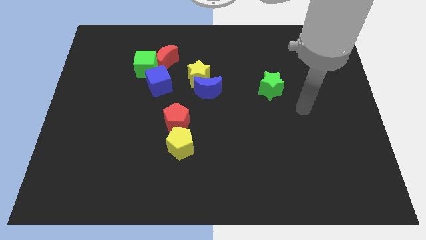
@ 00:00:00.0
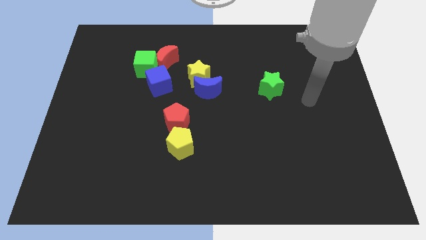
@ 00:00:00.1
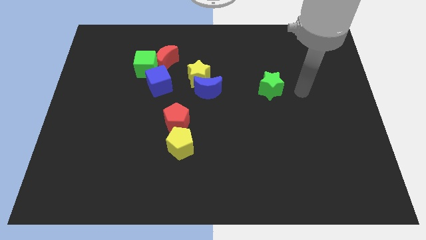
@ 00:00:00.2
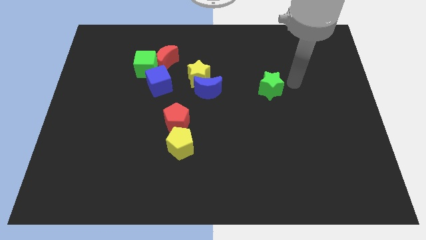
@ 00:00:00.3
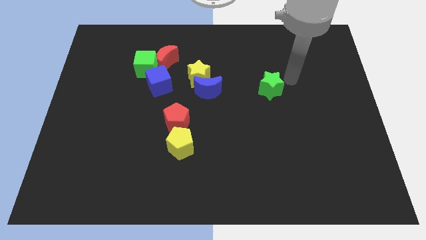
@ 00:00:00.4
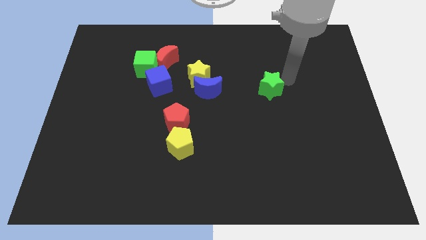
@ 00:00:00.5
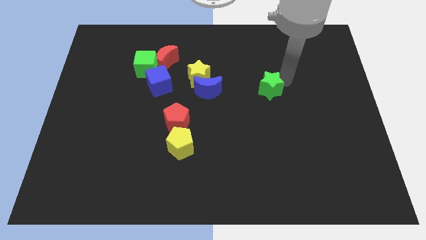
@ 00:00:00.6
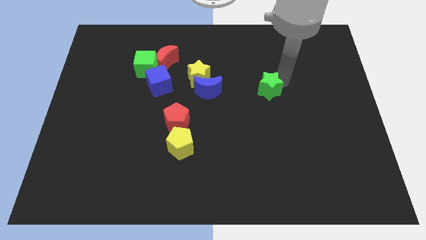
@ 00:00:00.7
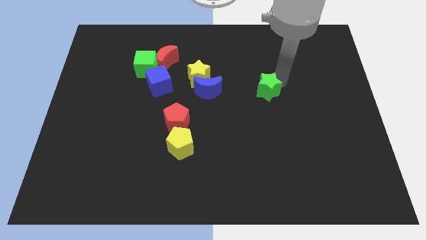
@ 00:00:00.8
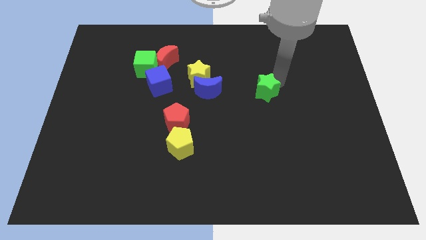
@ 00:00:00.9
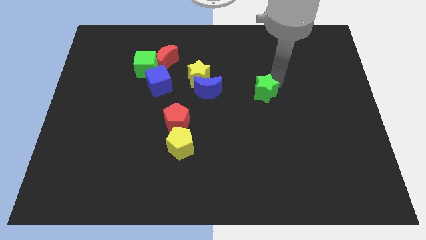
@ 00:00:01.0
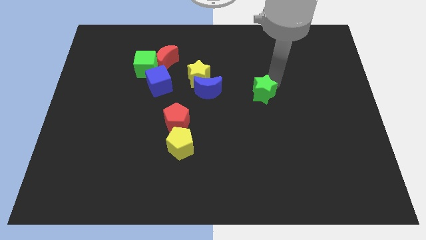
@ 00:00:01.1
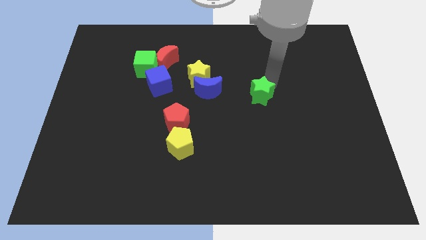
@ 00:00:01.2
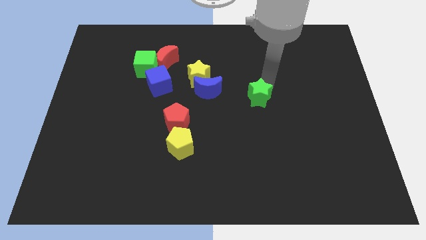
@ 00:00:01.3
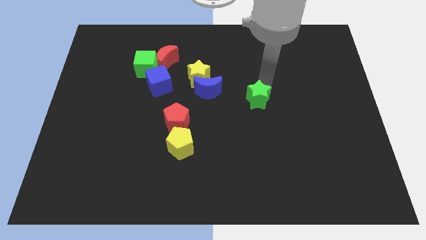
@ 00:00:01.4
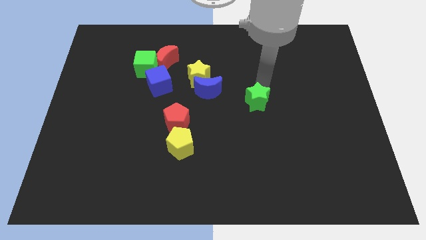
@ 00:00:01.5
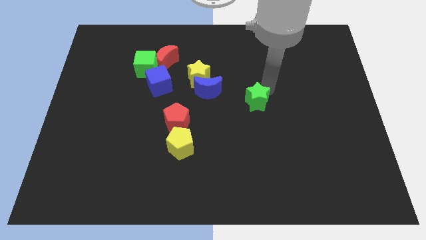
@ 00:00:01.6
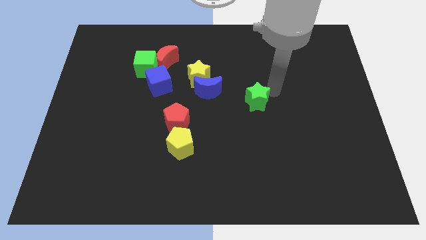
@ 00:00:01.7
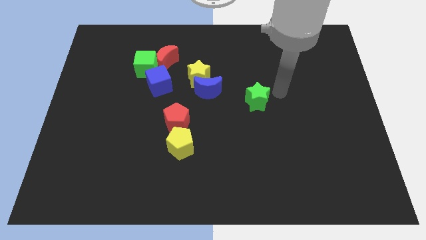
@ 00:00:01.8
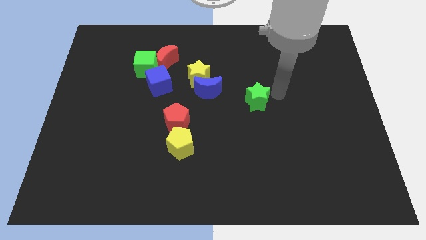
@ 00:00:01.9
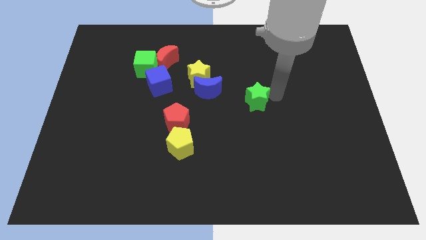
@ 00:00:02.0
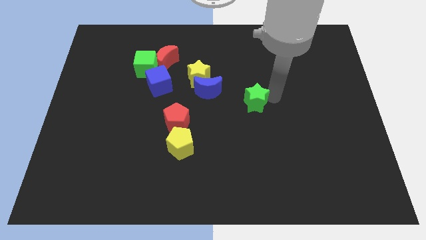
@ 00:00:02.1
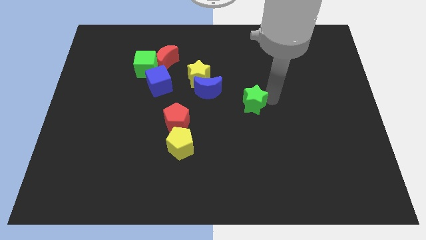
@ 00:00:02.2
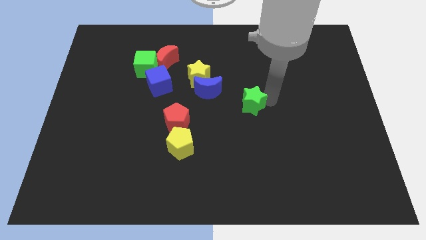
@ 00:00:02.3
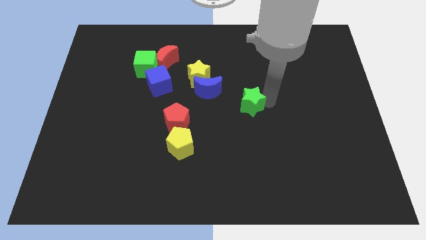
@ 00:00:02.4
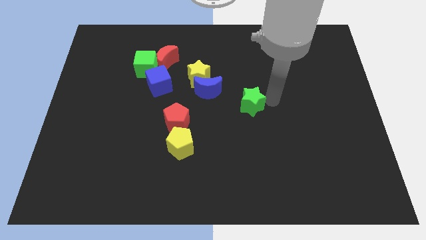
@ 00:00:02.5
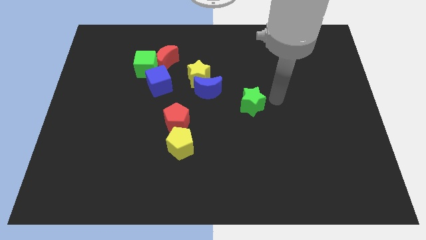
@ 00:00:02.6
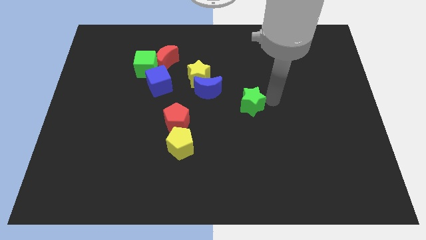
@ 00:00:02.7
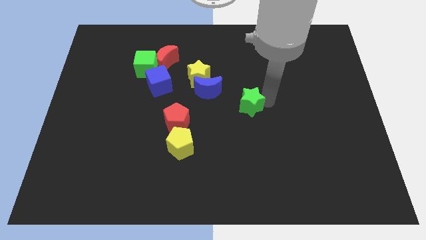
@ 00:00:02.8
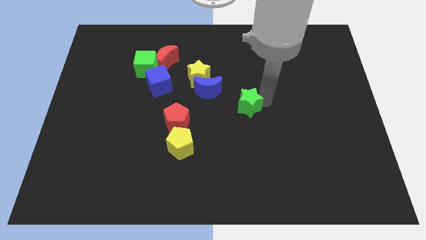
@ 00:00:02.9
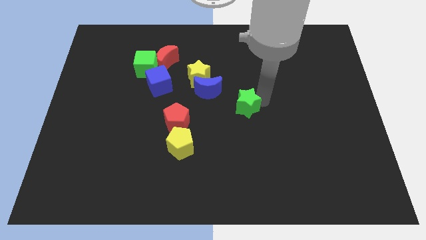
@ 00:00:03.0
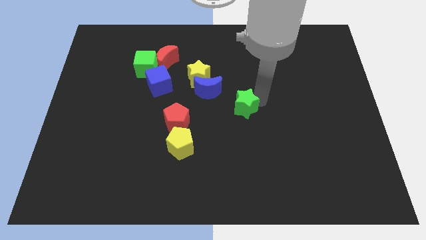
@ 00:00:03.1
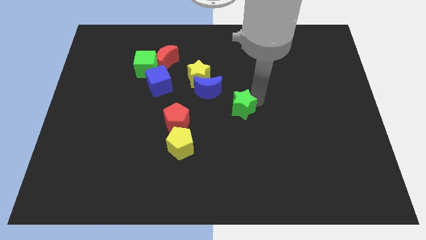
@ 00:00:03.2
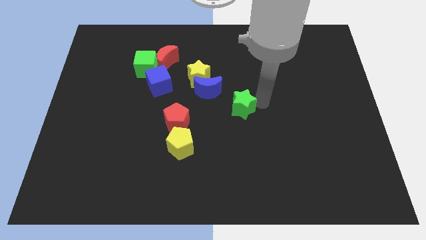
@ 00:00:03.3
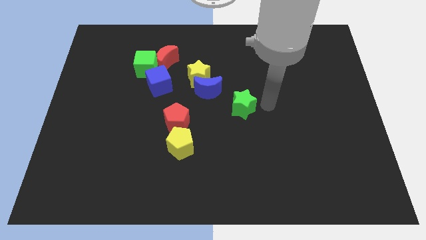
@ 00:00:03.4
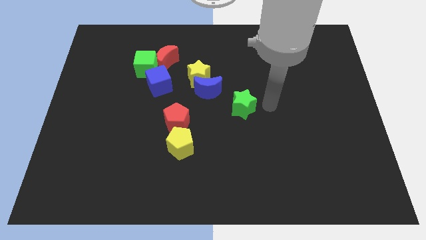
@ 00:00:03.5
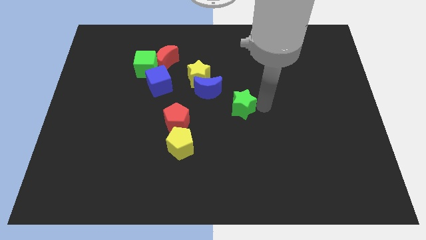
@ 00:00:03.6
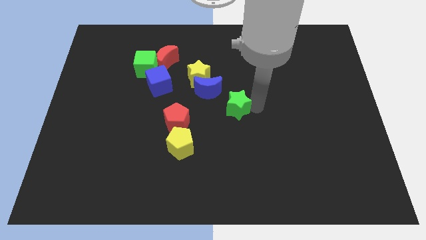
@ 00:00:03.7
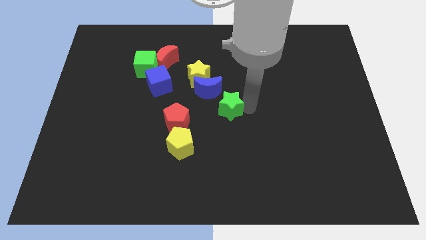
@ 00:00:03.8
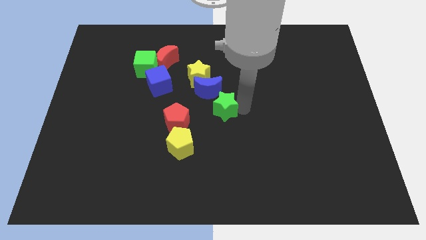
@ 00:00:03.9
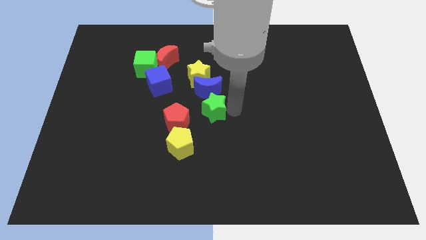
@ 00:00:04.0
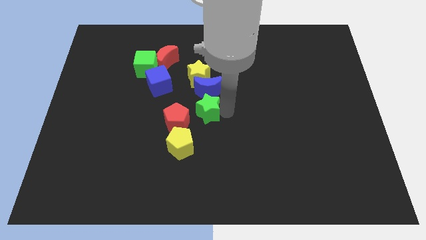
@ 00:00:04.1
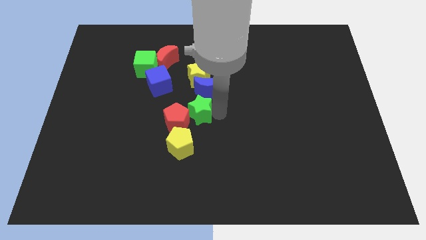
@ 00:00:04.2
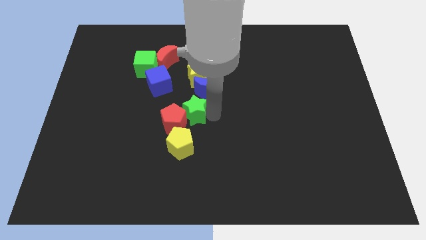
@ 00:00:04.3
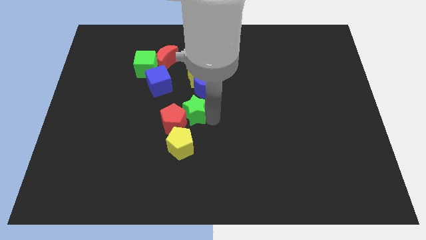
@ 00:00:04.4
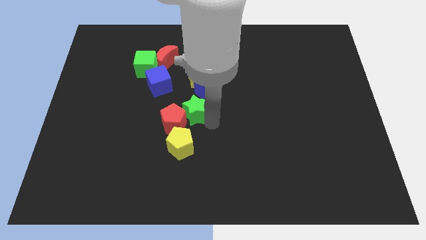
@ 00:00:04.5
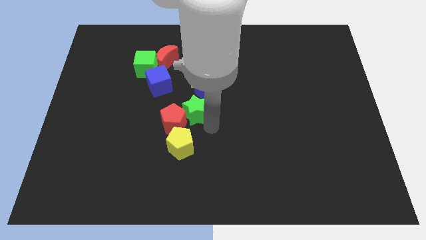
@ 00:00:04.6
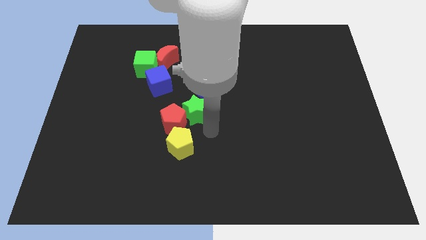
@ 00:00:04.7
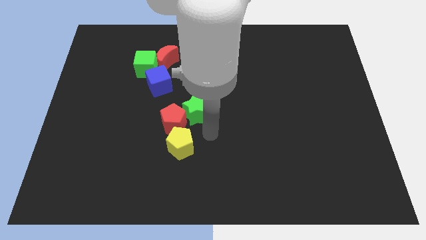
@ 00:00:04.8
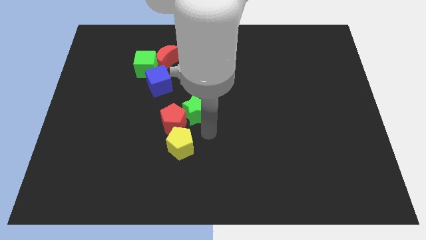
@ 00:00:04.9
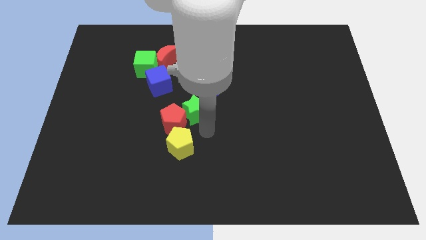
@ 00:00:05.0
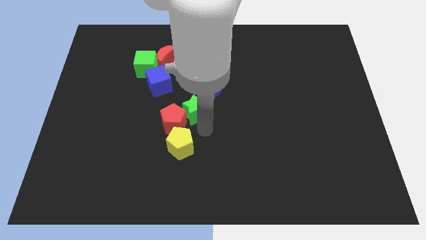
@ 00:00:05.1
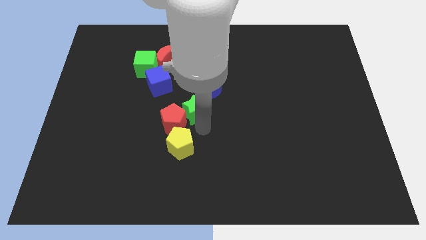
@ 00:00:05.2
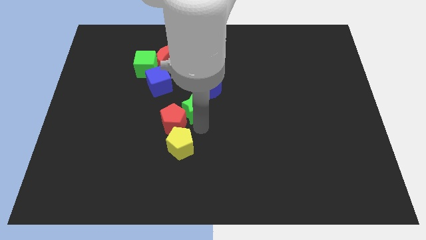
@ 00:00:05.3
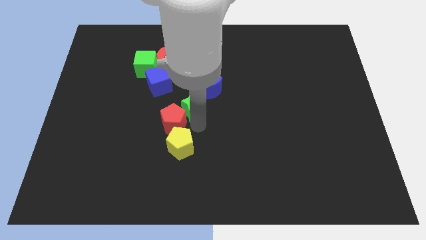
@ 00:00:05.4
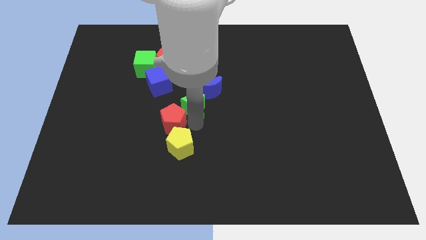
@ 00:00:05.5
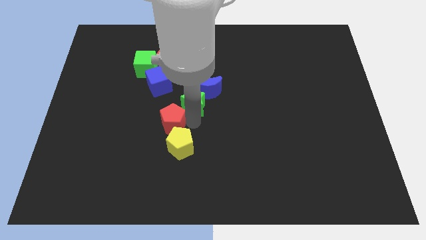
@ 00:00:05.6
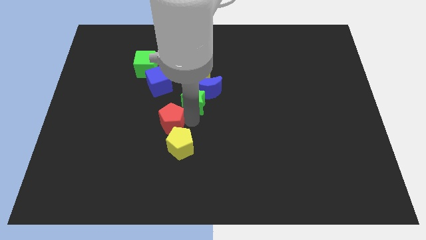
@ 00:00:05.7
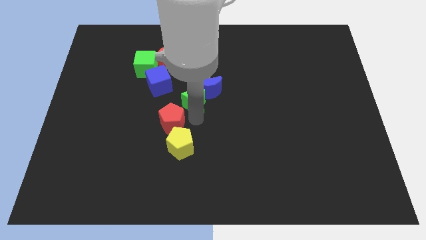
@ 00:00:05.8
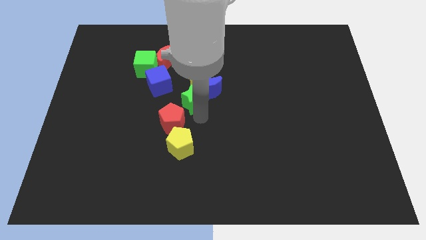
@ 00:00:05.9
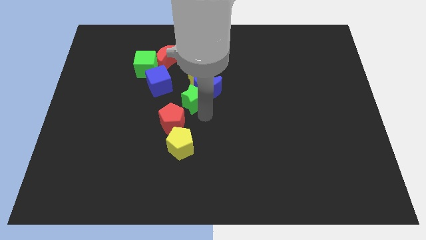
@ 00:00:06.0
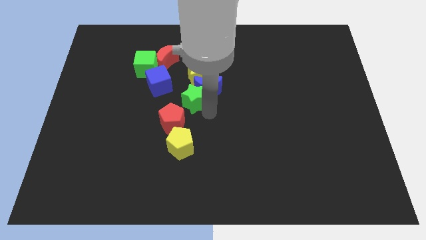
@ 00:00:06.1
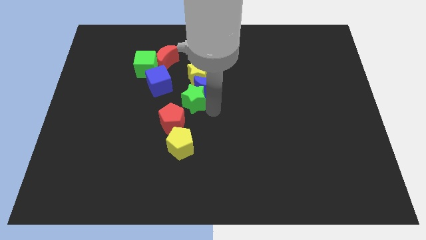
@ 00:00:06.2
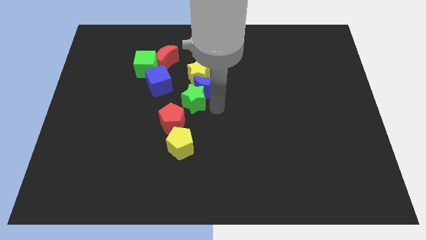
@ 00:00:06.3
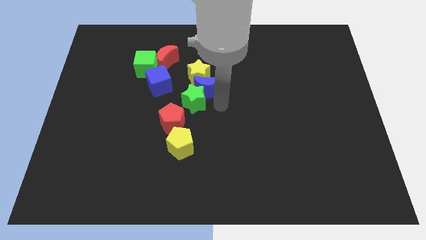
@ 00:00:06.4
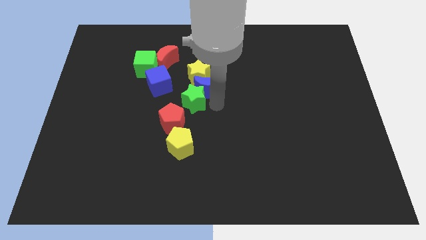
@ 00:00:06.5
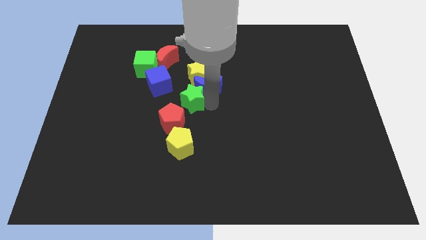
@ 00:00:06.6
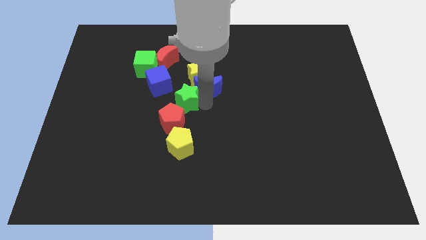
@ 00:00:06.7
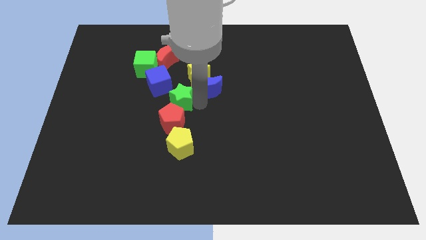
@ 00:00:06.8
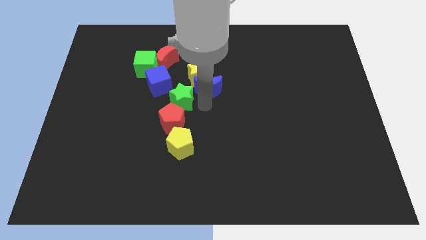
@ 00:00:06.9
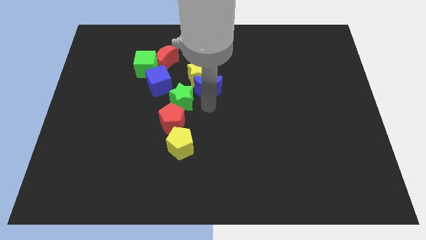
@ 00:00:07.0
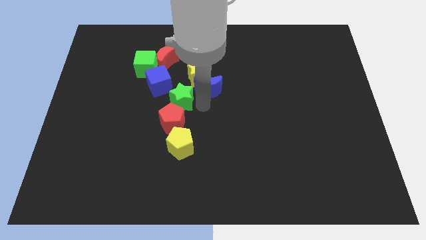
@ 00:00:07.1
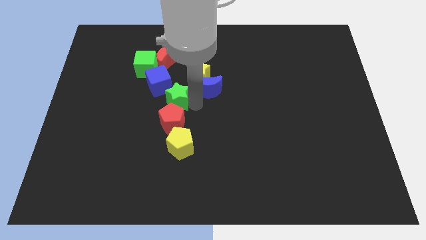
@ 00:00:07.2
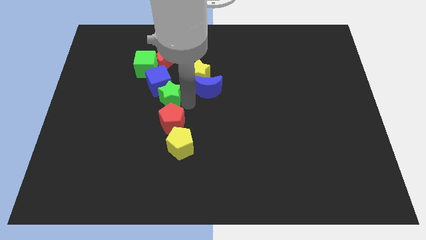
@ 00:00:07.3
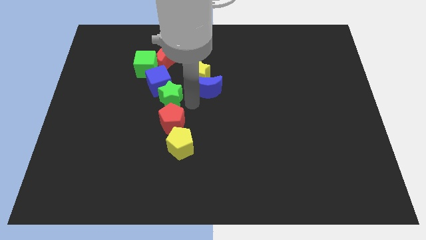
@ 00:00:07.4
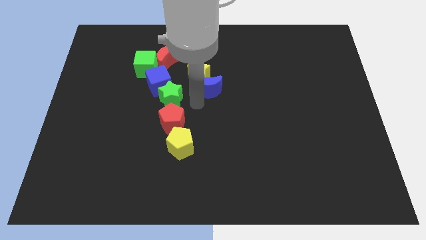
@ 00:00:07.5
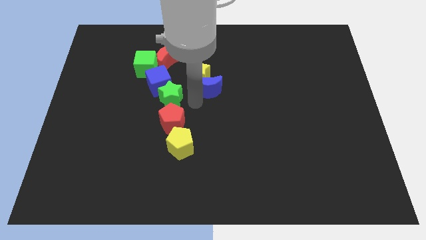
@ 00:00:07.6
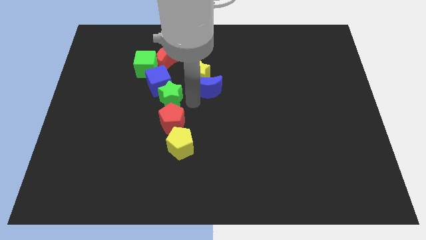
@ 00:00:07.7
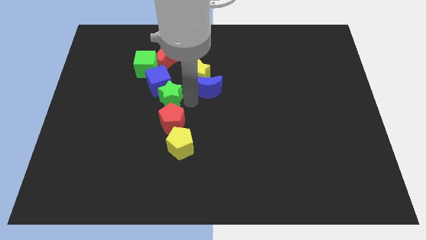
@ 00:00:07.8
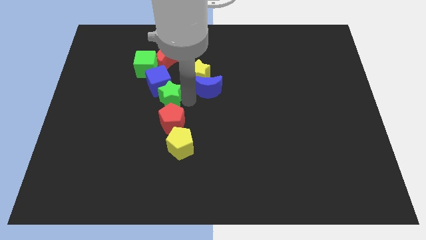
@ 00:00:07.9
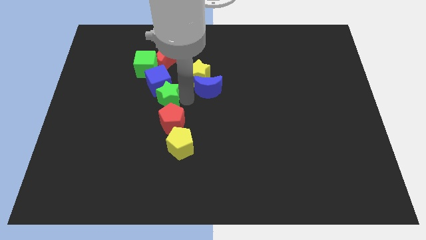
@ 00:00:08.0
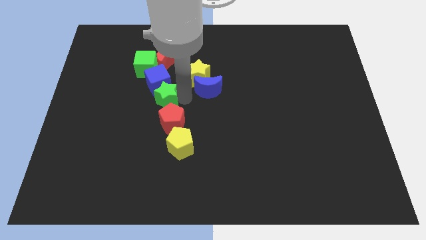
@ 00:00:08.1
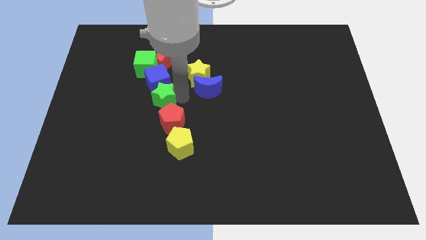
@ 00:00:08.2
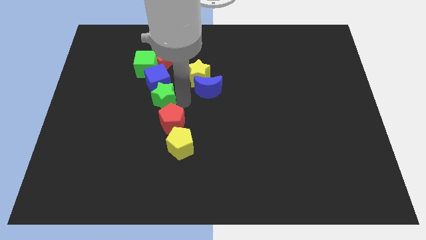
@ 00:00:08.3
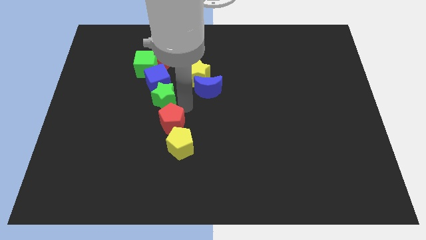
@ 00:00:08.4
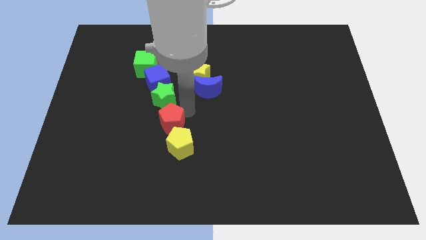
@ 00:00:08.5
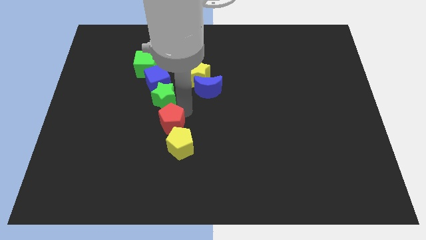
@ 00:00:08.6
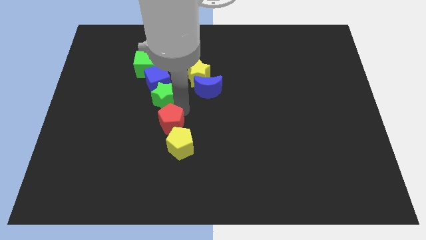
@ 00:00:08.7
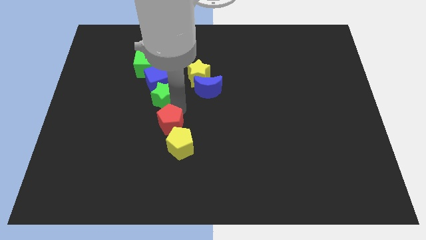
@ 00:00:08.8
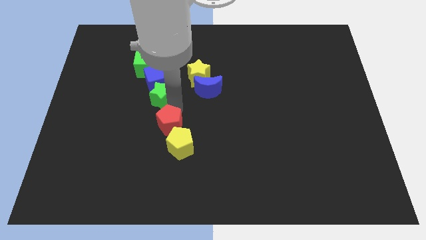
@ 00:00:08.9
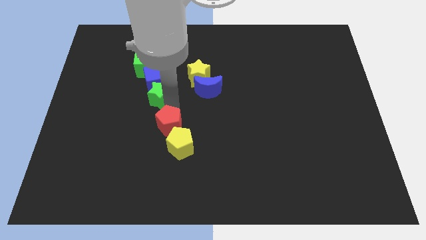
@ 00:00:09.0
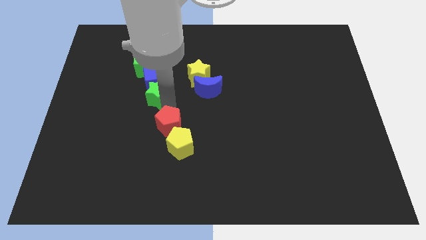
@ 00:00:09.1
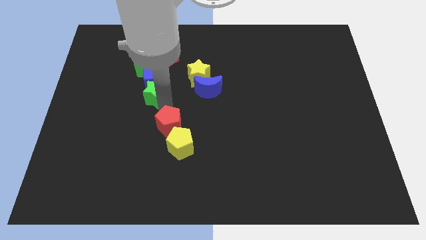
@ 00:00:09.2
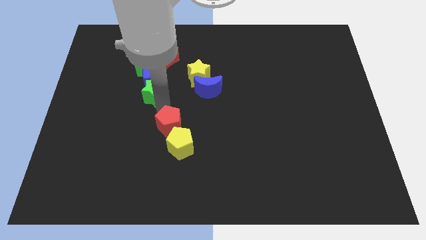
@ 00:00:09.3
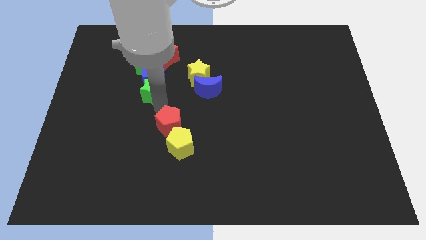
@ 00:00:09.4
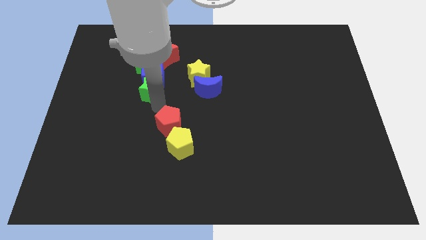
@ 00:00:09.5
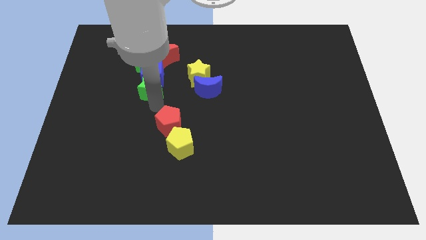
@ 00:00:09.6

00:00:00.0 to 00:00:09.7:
push the green star just left of the yellow star
